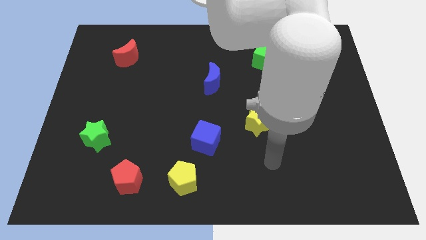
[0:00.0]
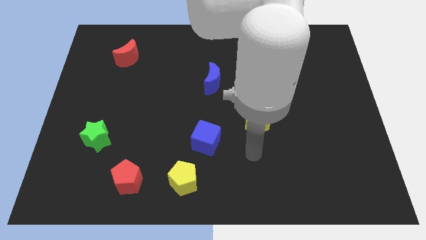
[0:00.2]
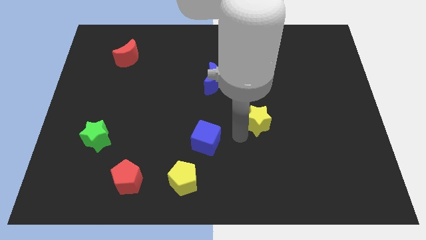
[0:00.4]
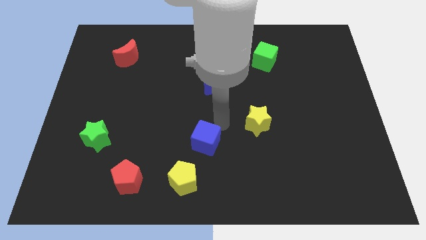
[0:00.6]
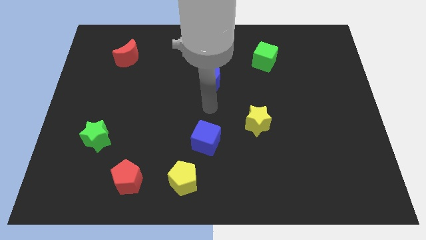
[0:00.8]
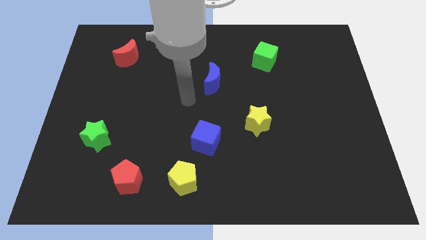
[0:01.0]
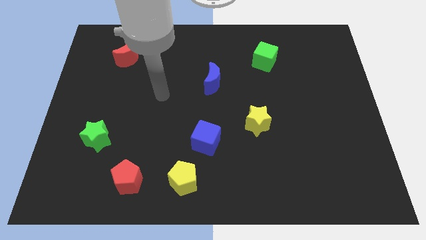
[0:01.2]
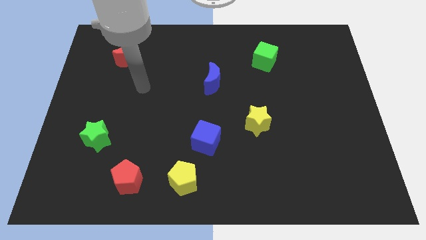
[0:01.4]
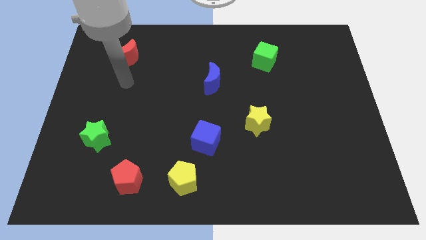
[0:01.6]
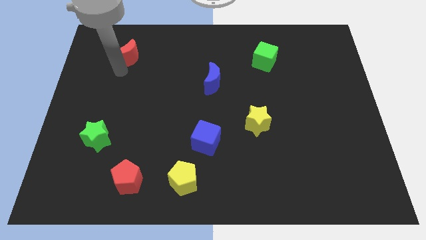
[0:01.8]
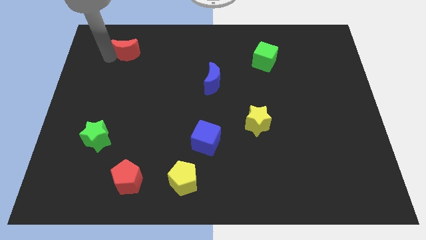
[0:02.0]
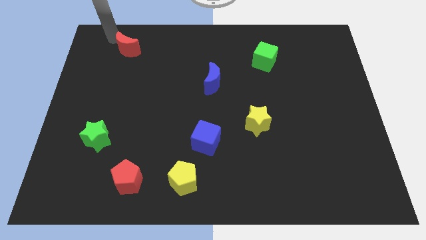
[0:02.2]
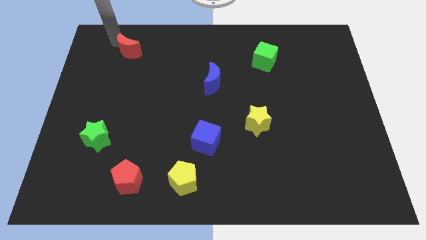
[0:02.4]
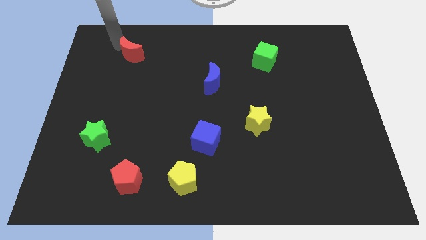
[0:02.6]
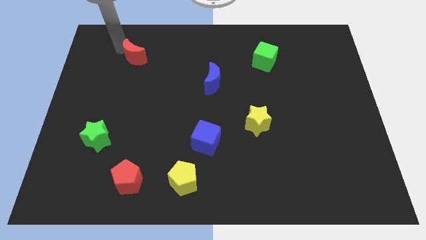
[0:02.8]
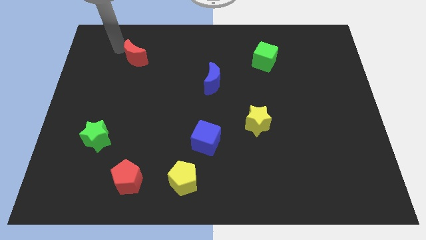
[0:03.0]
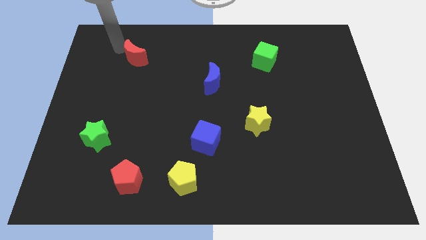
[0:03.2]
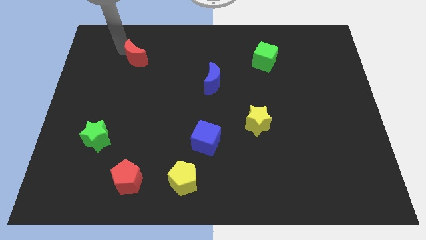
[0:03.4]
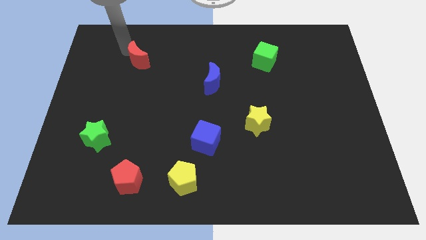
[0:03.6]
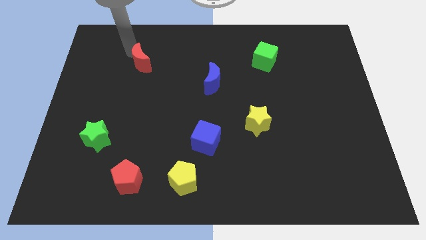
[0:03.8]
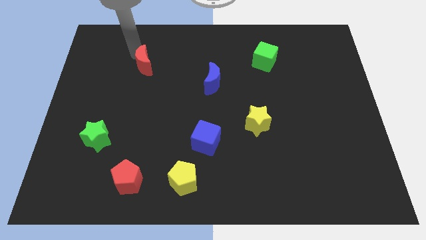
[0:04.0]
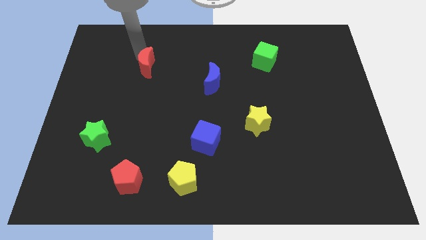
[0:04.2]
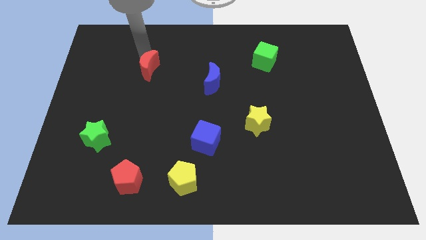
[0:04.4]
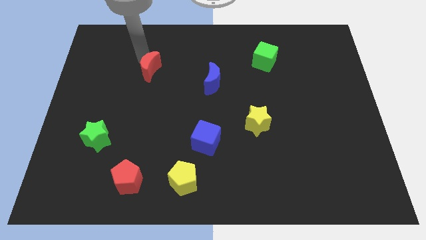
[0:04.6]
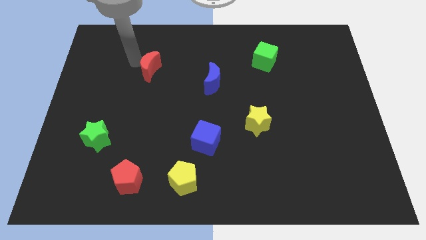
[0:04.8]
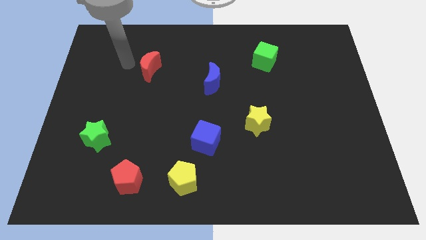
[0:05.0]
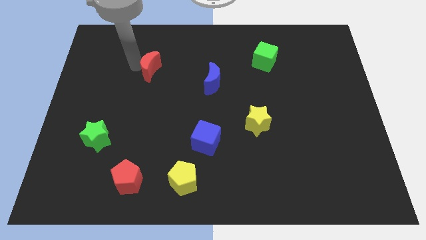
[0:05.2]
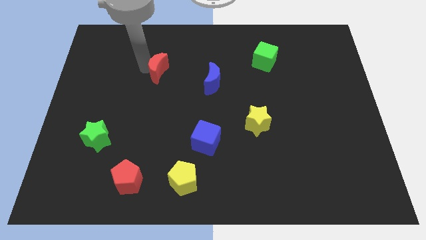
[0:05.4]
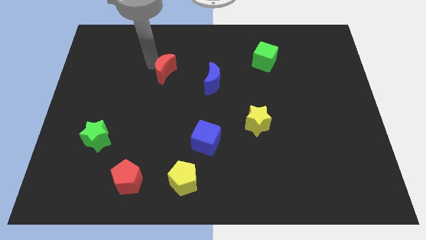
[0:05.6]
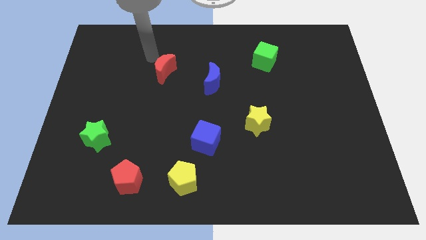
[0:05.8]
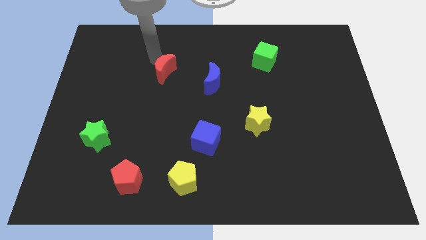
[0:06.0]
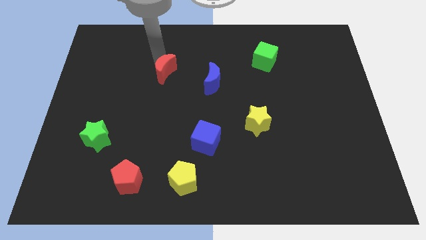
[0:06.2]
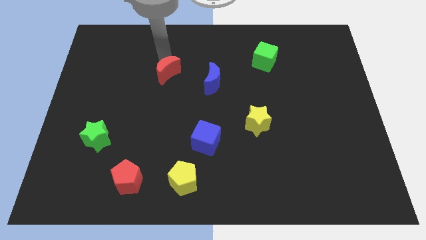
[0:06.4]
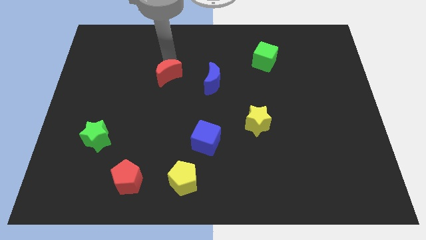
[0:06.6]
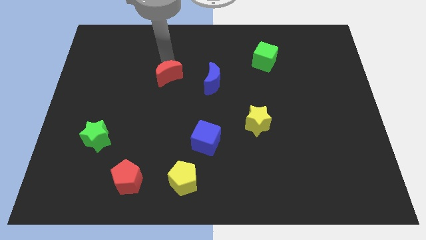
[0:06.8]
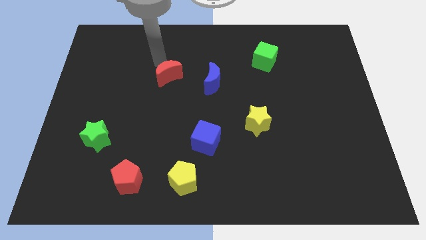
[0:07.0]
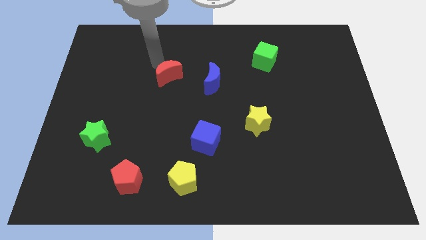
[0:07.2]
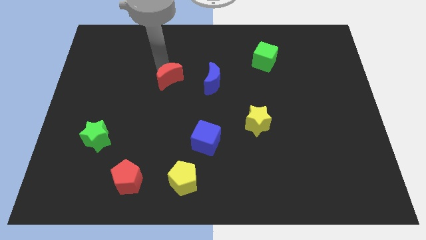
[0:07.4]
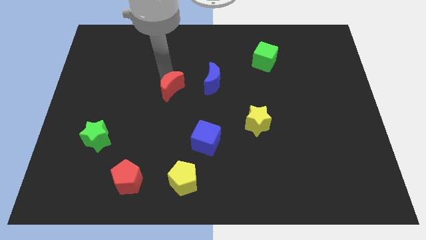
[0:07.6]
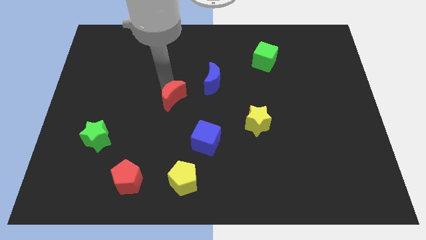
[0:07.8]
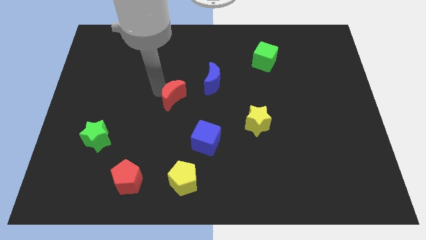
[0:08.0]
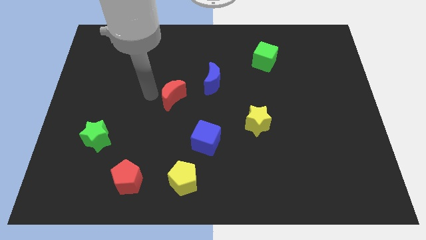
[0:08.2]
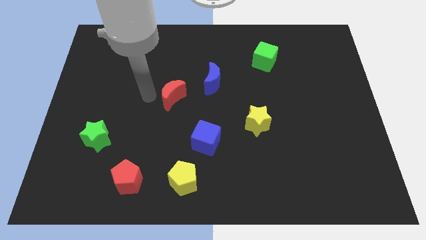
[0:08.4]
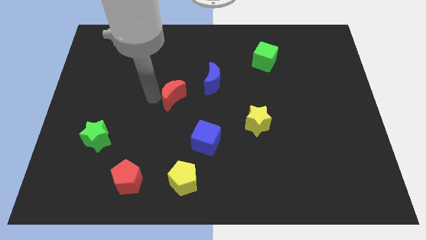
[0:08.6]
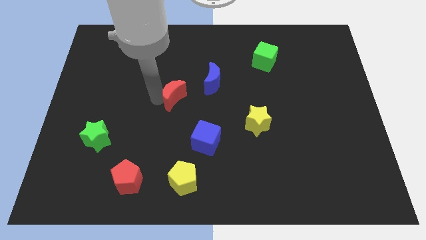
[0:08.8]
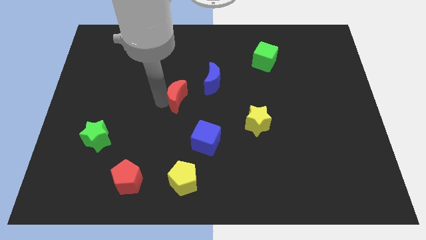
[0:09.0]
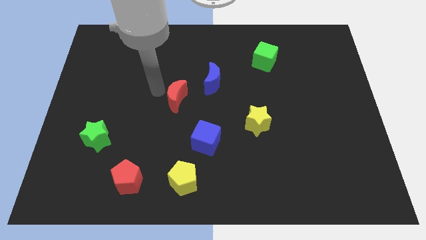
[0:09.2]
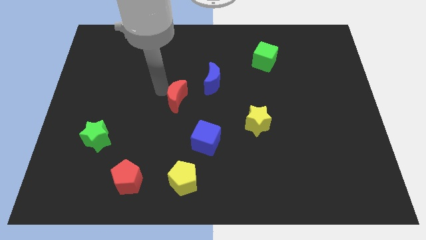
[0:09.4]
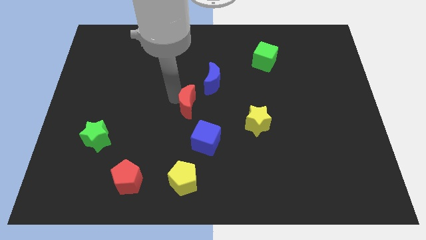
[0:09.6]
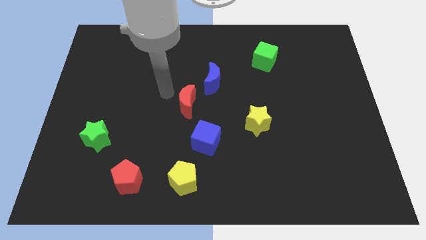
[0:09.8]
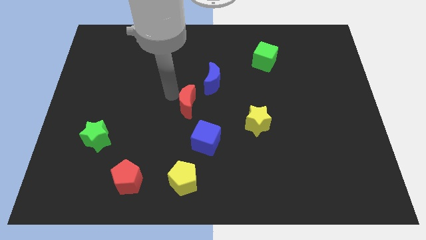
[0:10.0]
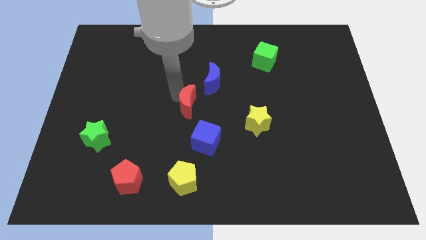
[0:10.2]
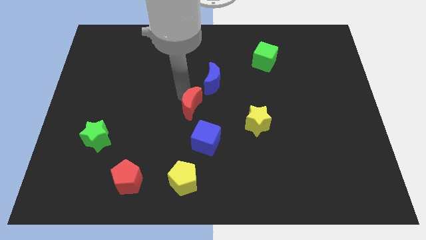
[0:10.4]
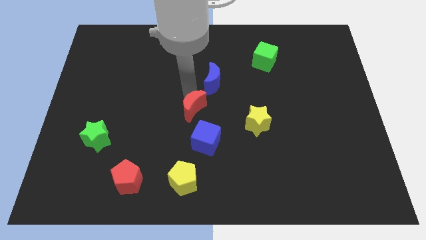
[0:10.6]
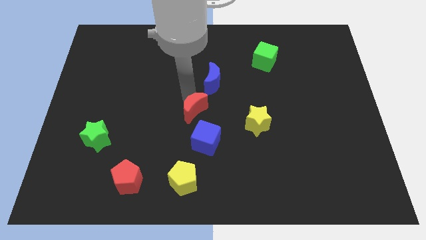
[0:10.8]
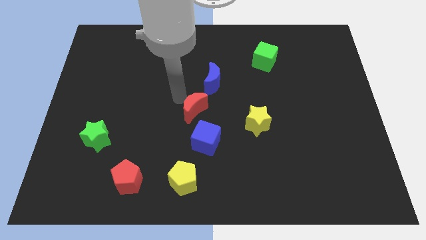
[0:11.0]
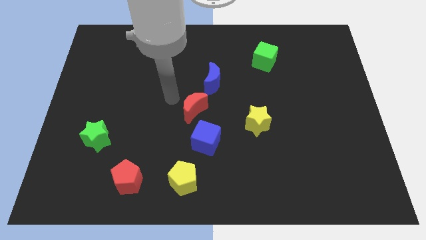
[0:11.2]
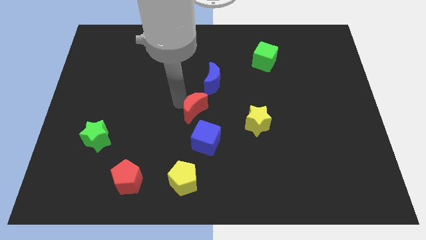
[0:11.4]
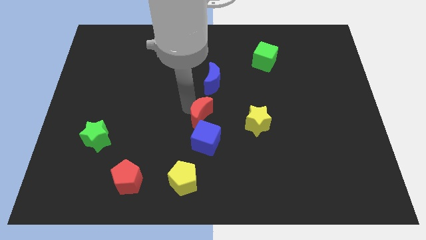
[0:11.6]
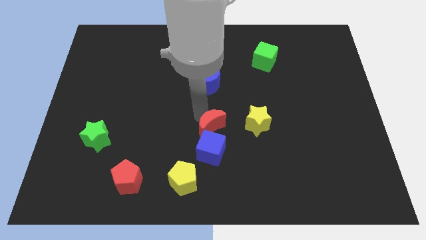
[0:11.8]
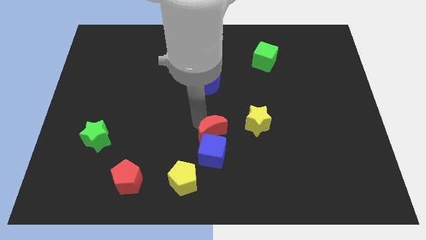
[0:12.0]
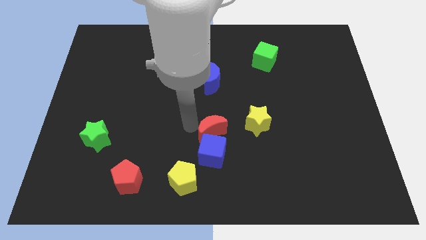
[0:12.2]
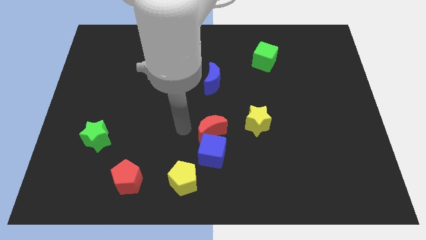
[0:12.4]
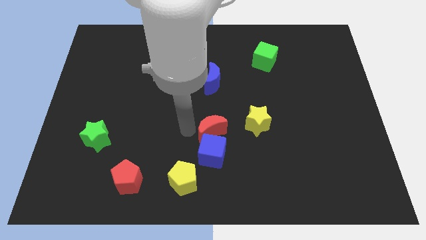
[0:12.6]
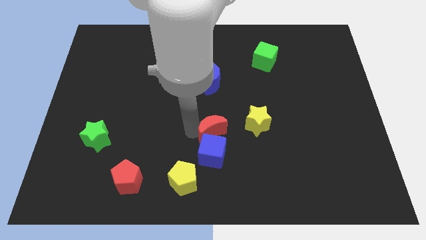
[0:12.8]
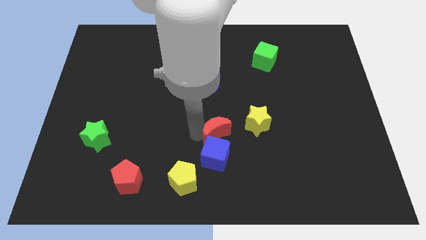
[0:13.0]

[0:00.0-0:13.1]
move the red moon to the bottom left of the yellow star

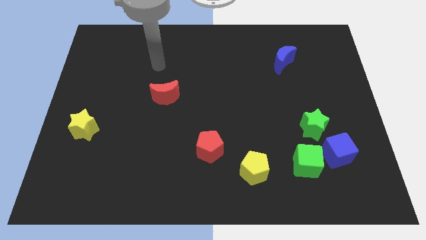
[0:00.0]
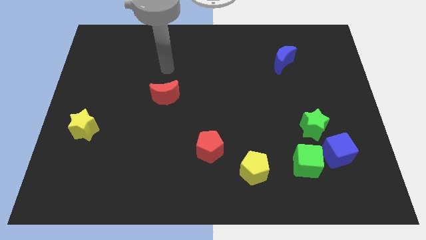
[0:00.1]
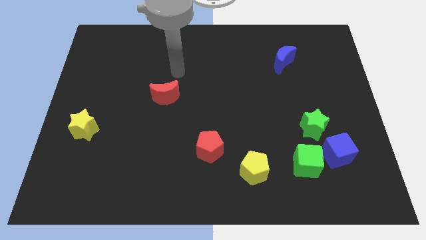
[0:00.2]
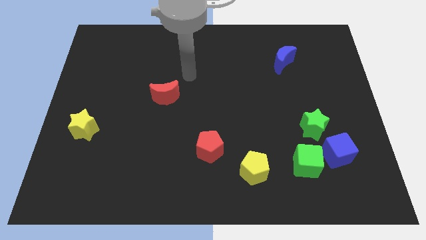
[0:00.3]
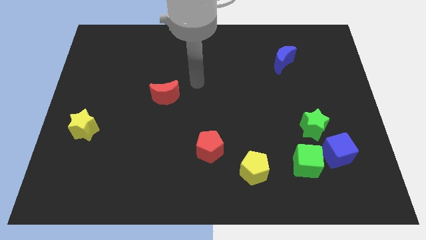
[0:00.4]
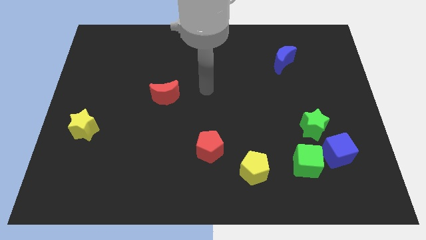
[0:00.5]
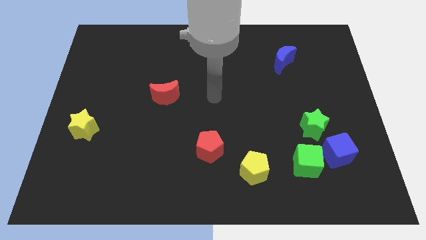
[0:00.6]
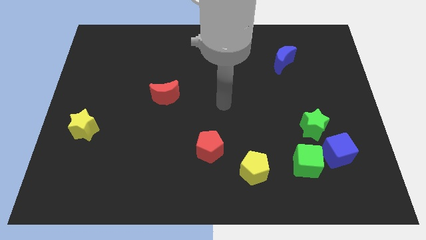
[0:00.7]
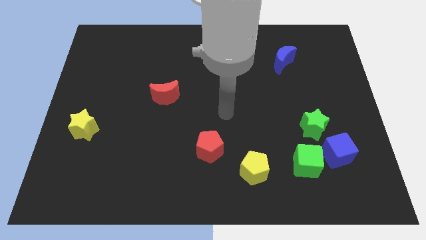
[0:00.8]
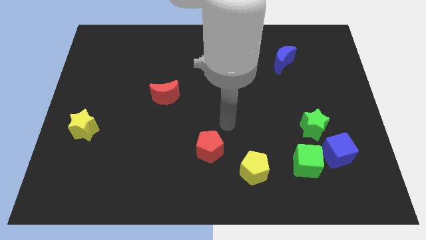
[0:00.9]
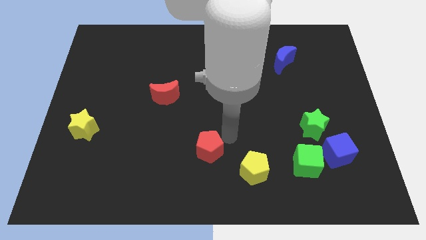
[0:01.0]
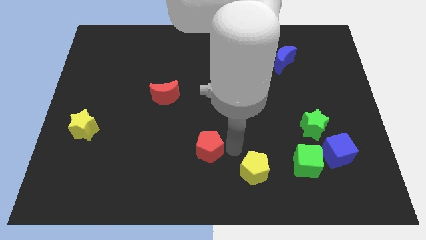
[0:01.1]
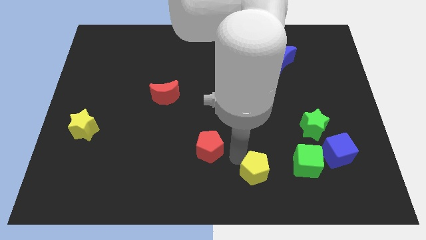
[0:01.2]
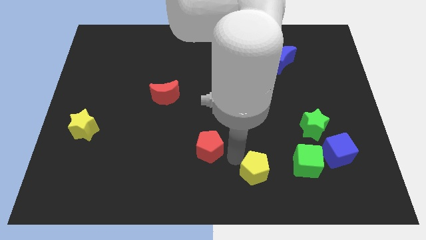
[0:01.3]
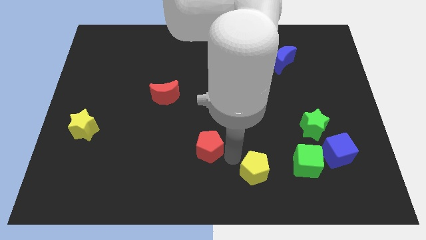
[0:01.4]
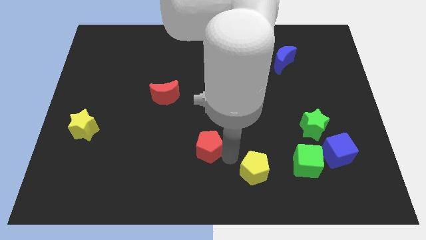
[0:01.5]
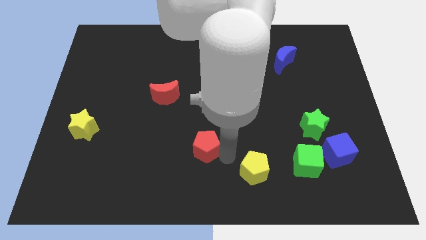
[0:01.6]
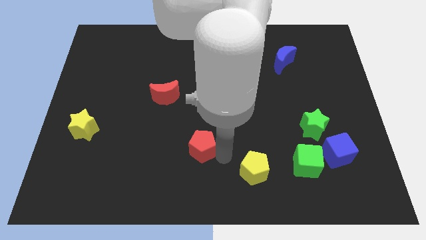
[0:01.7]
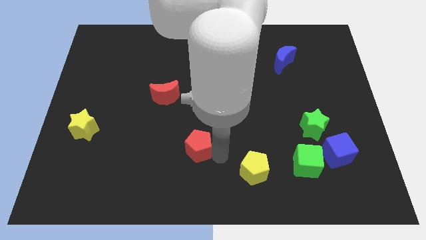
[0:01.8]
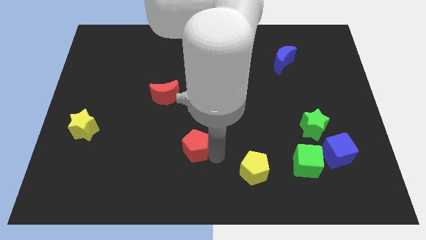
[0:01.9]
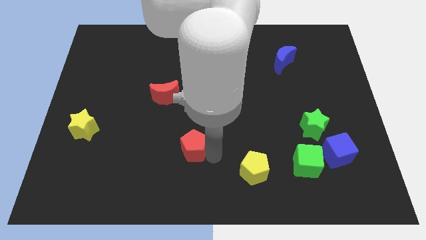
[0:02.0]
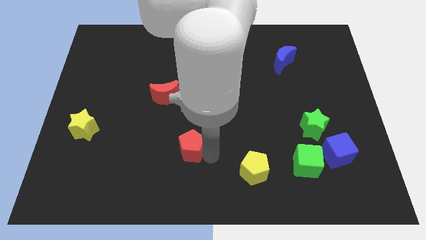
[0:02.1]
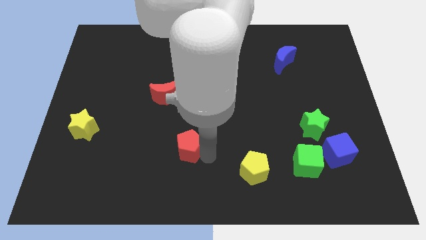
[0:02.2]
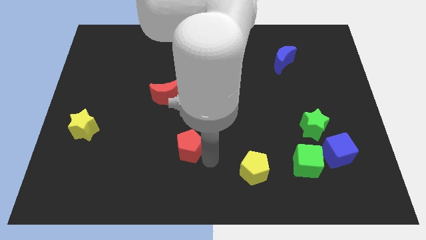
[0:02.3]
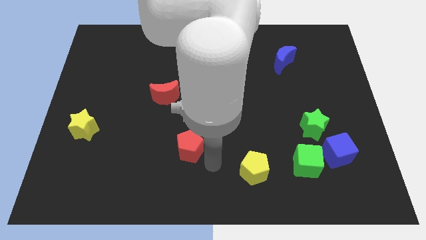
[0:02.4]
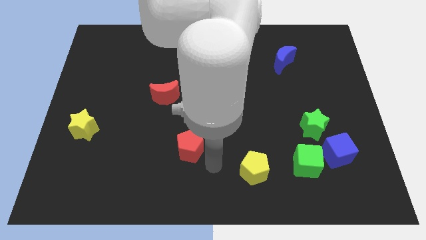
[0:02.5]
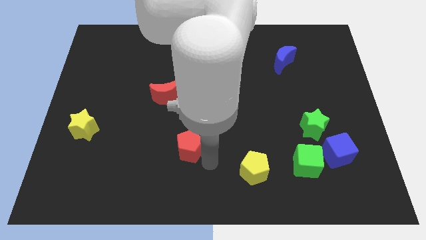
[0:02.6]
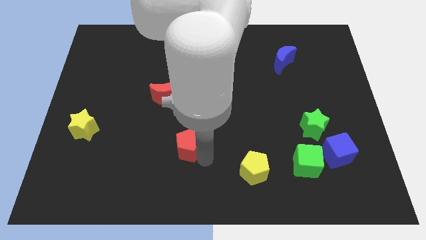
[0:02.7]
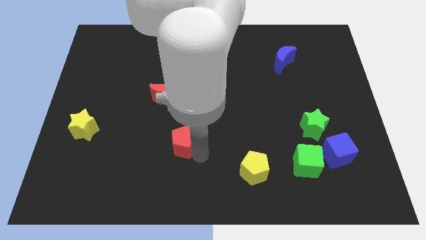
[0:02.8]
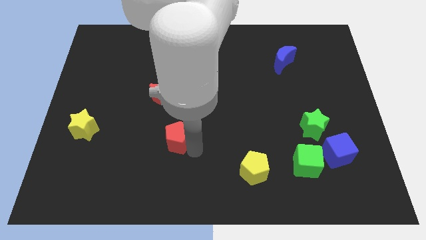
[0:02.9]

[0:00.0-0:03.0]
put the red pentagon to the bottom side of the red moon
